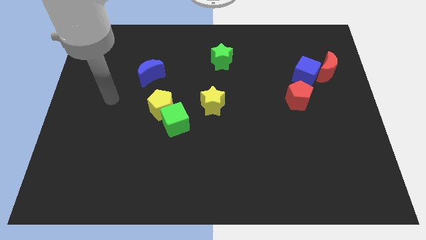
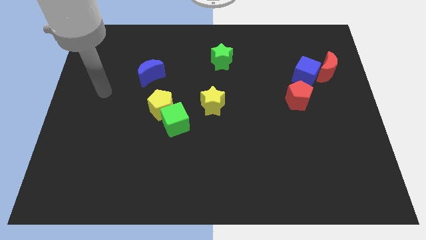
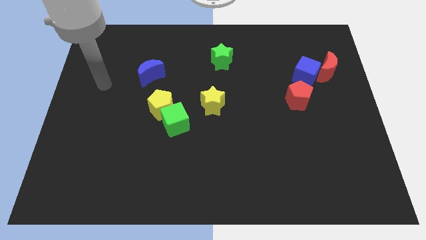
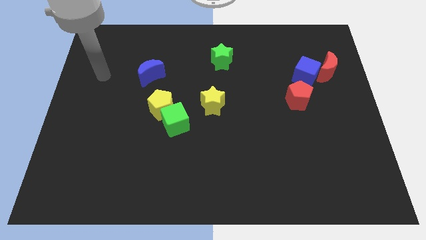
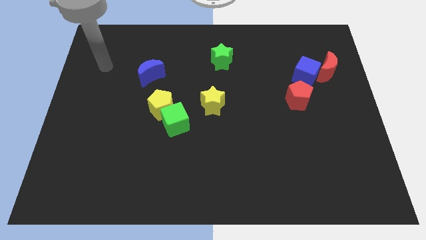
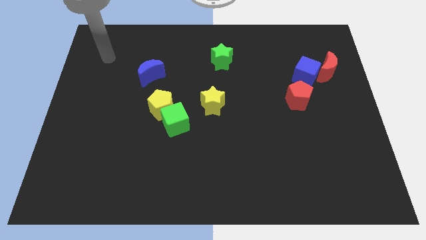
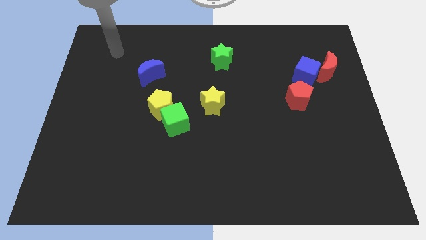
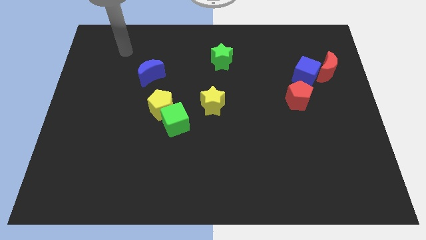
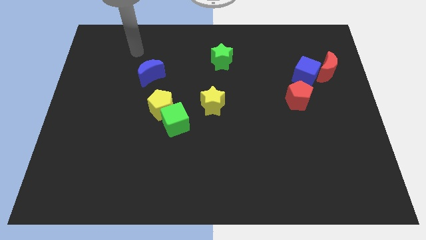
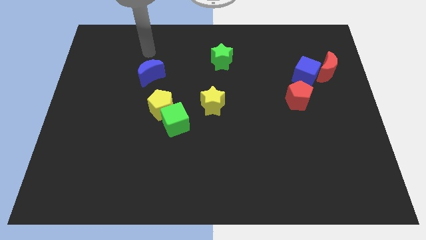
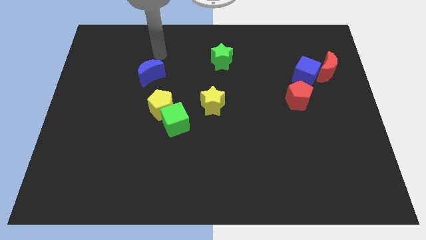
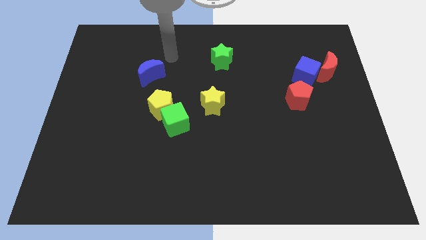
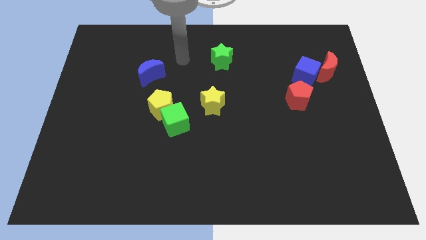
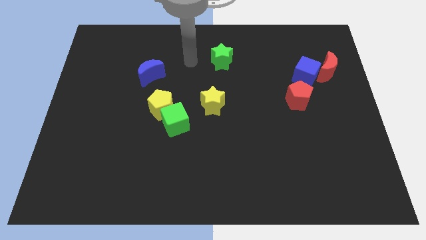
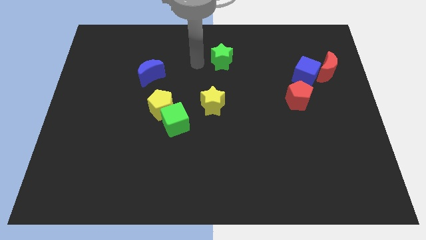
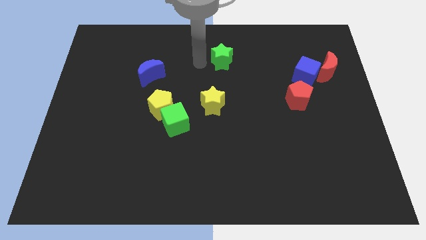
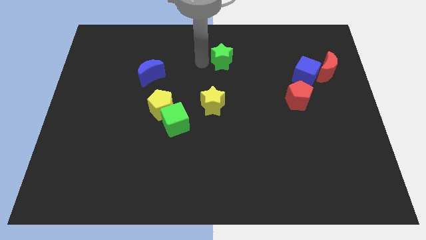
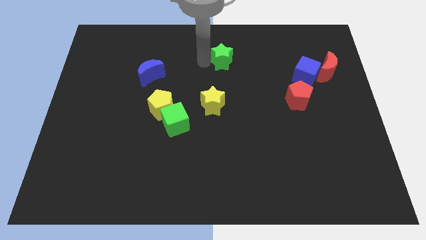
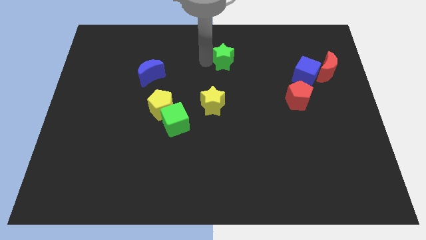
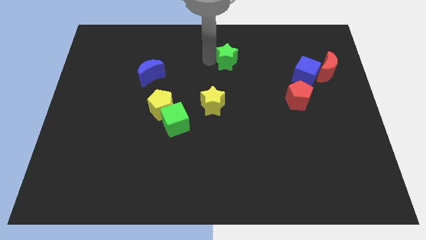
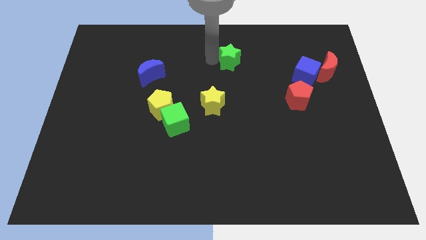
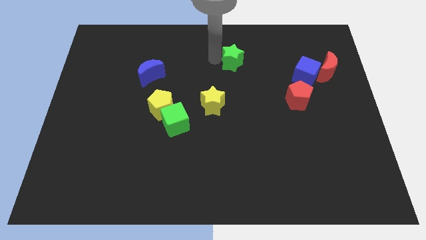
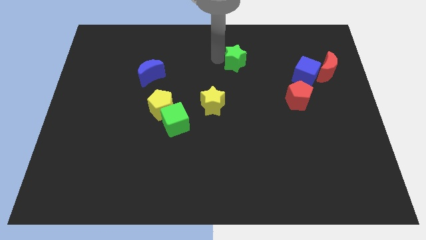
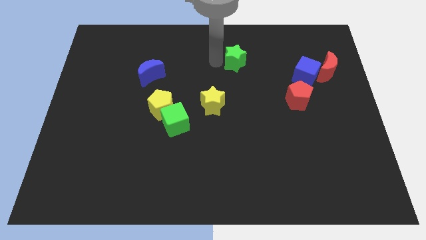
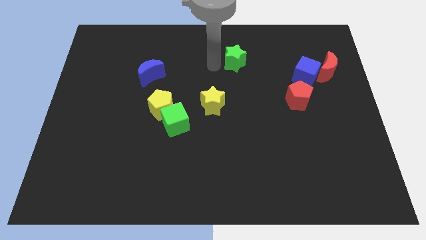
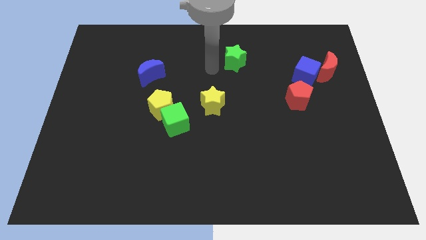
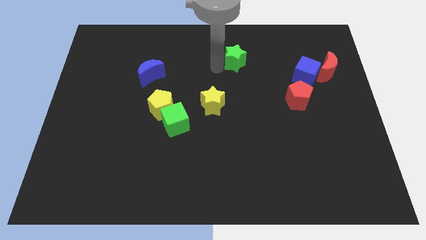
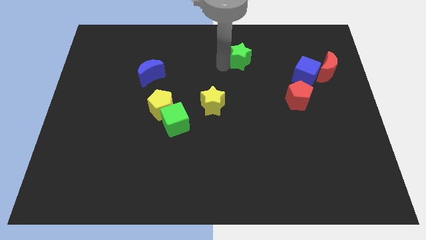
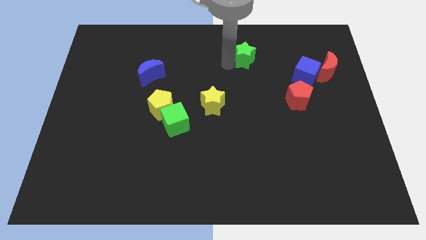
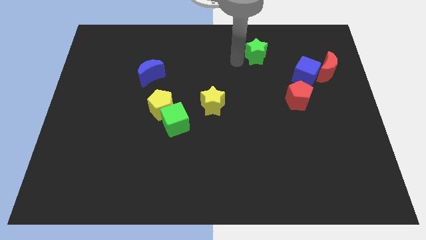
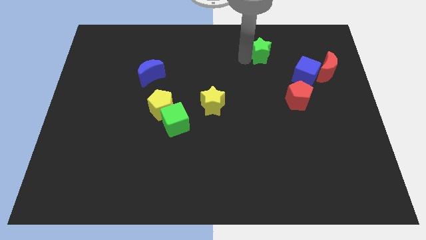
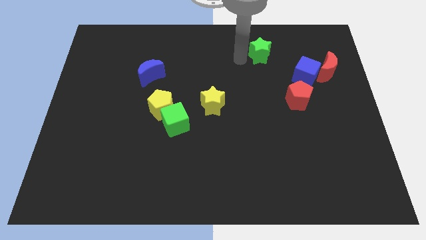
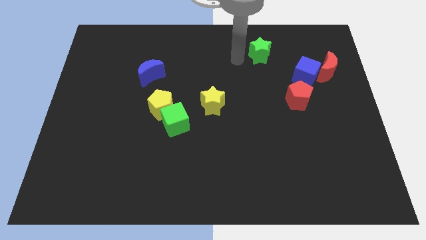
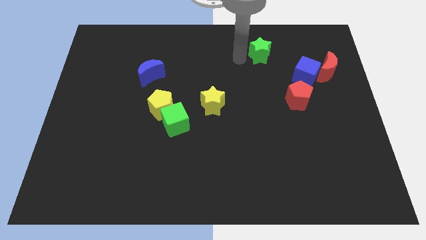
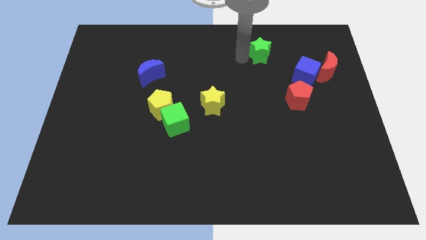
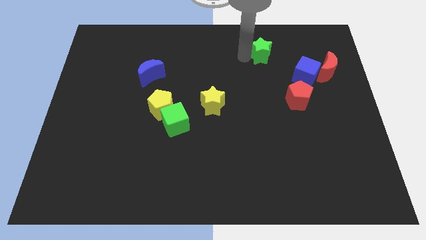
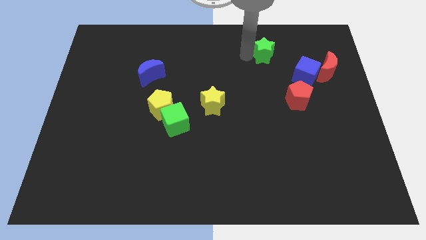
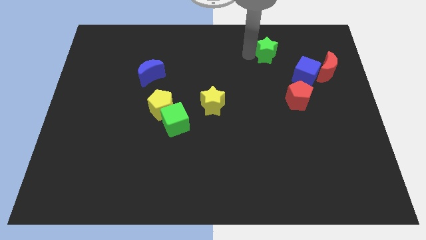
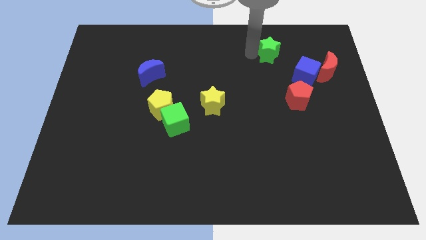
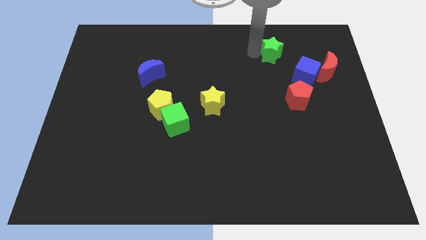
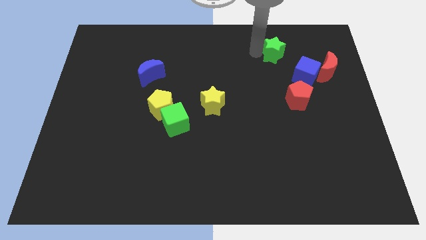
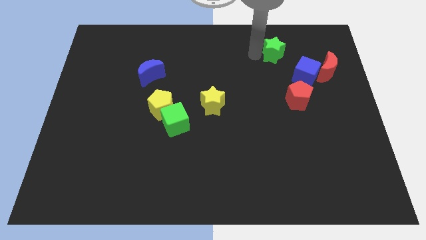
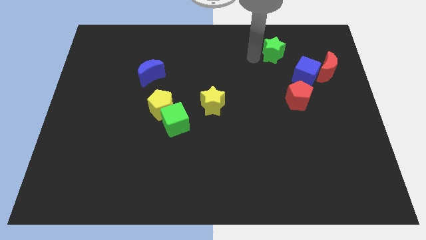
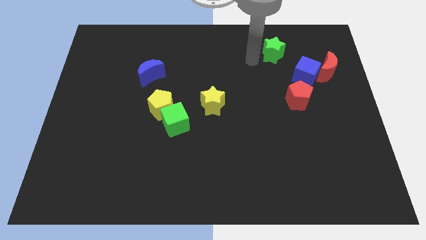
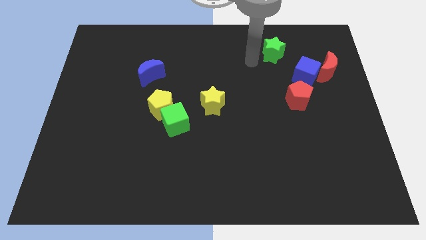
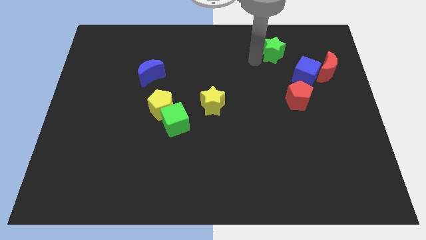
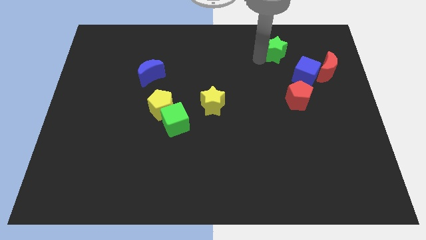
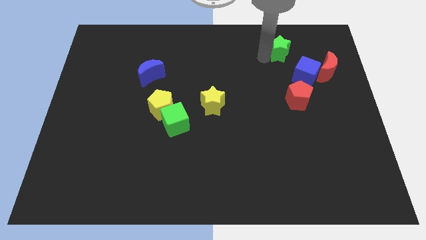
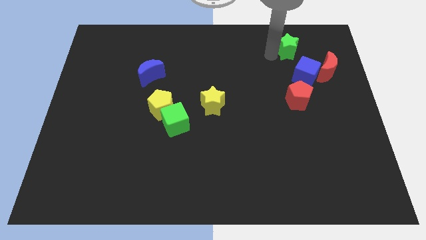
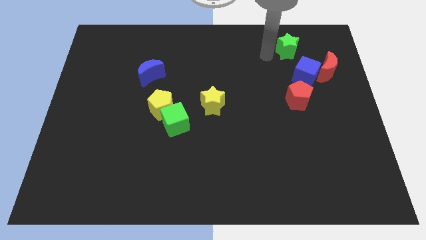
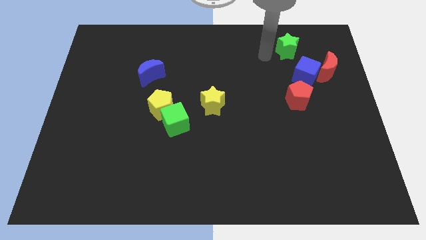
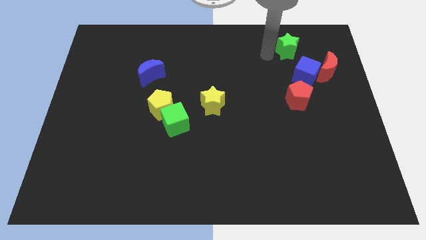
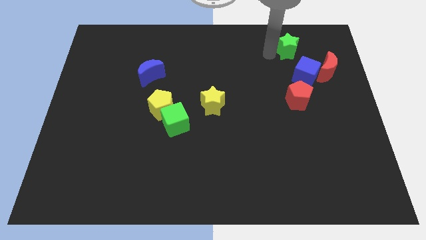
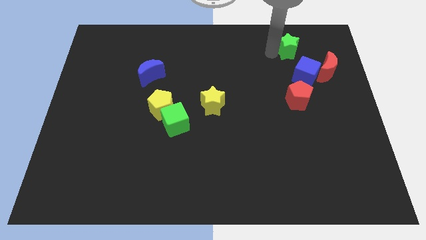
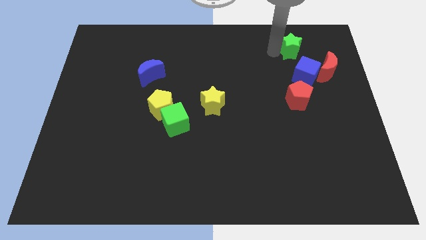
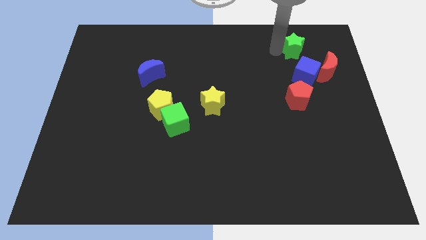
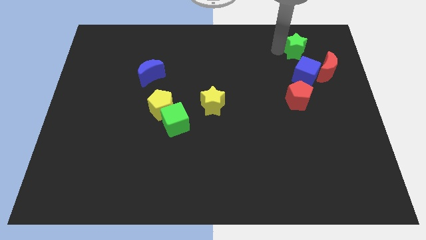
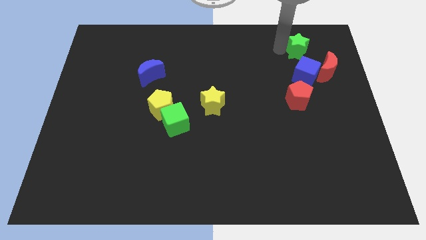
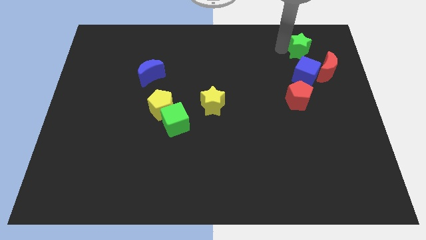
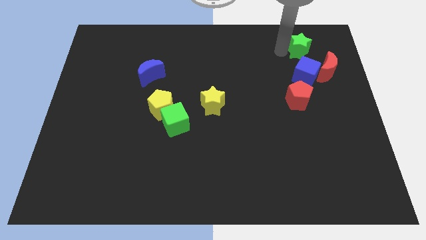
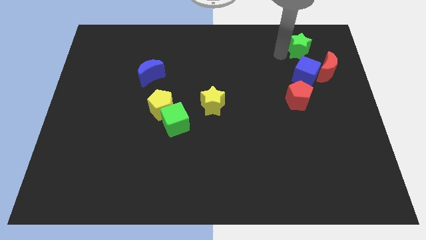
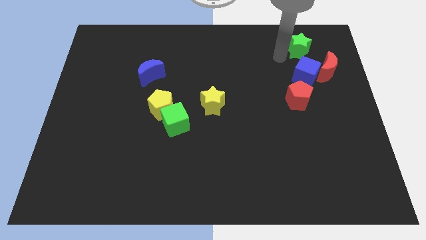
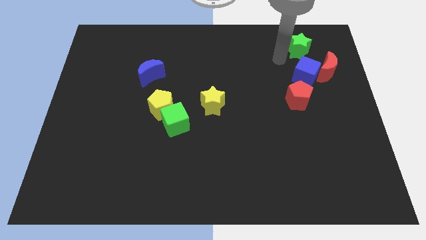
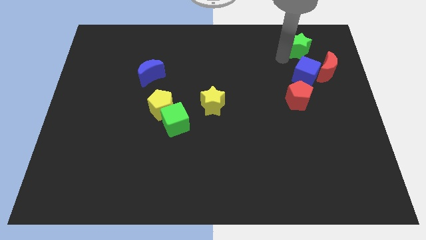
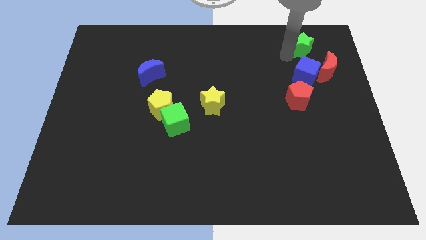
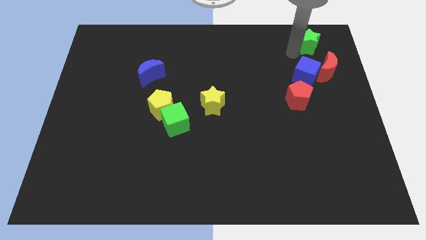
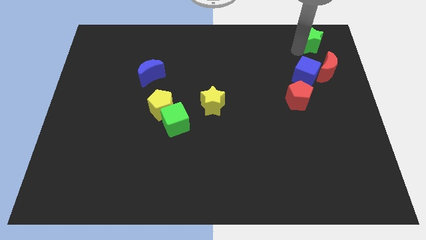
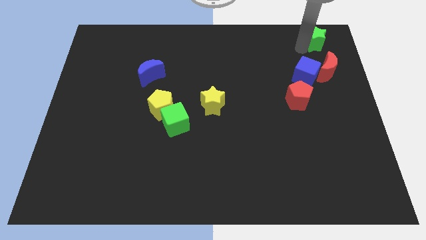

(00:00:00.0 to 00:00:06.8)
push the green star to the top right of the board

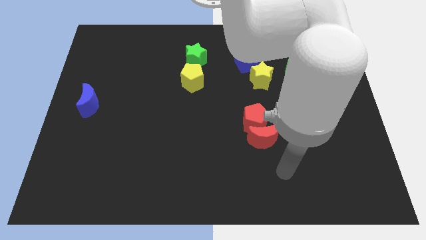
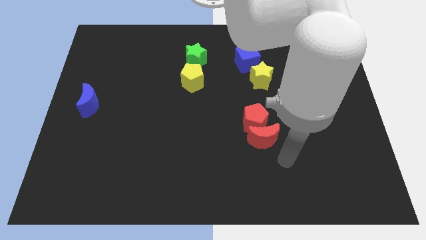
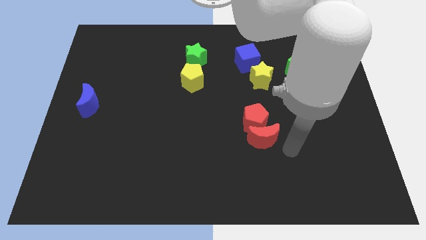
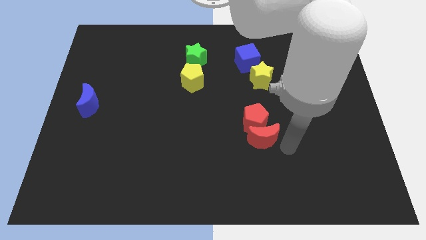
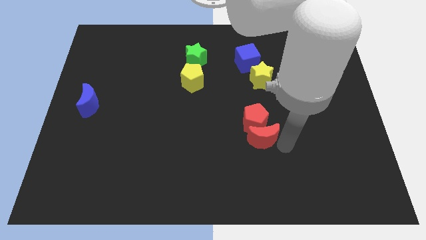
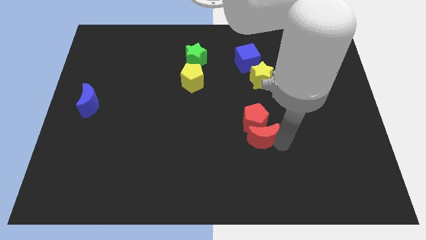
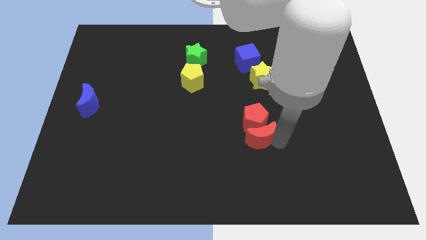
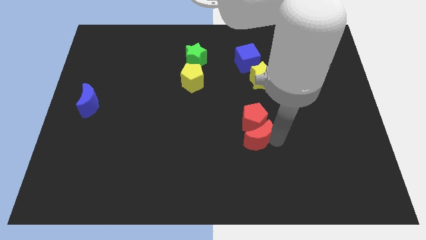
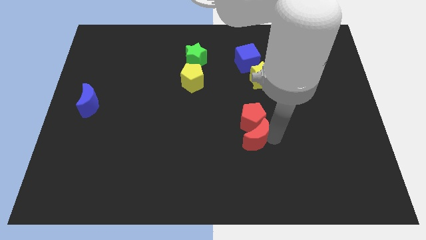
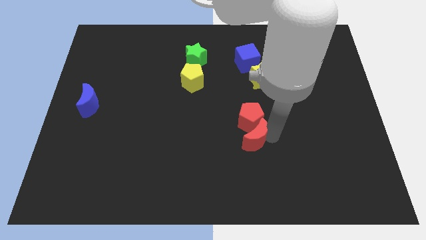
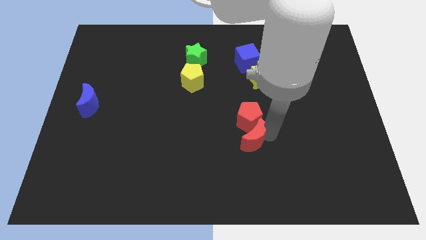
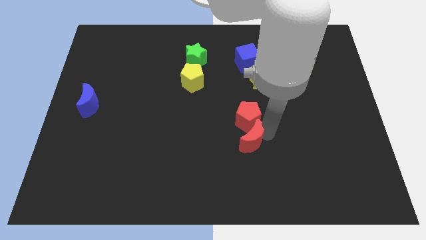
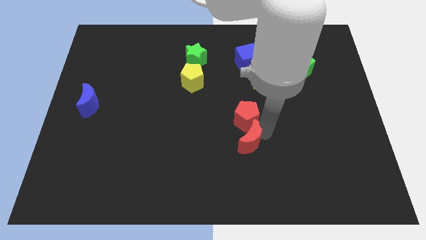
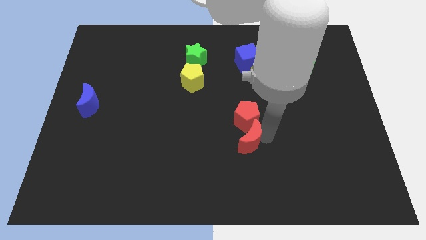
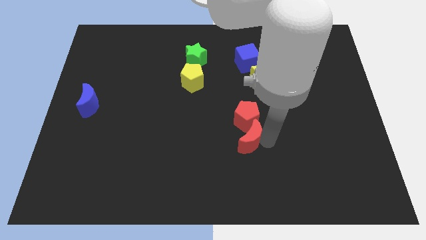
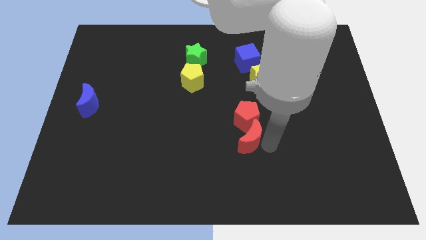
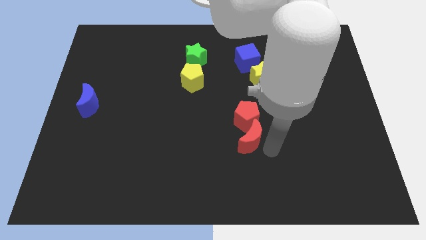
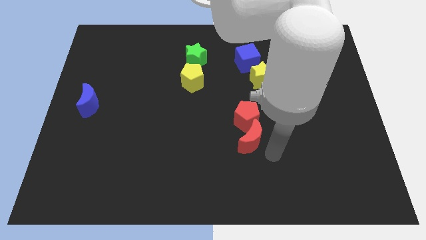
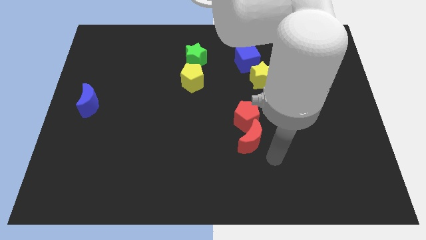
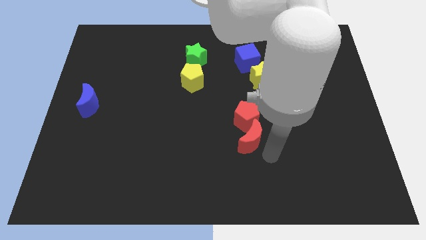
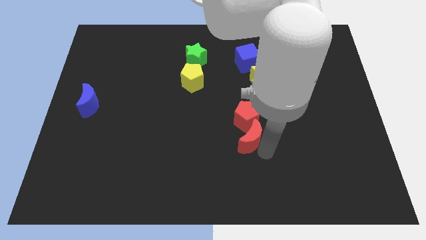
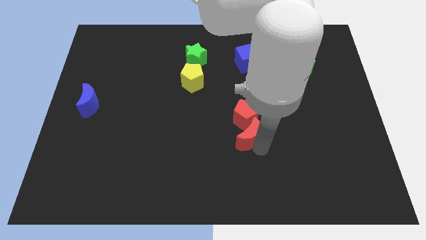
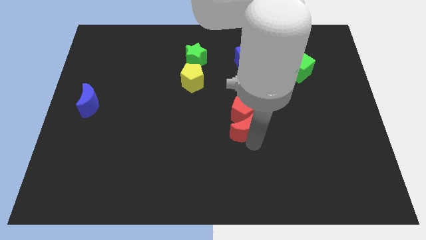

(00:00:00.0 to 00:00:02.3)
put the red moon to the center of the board
